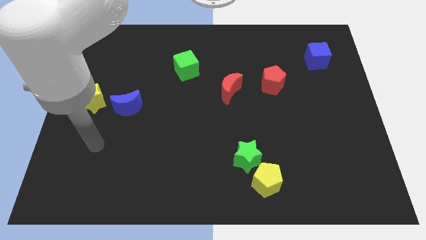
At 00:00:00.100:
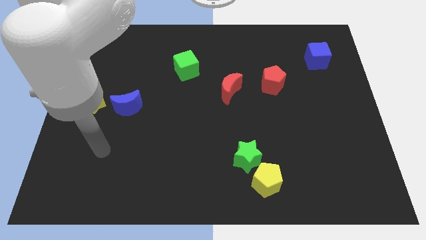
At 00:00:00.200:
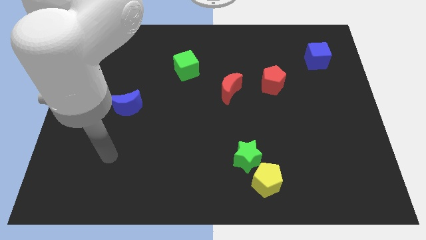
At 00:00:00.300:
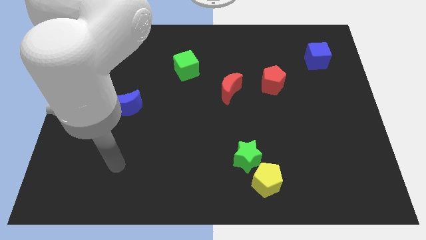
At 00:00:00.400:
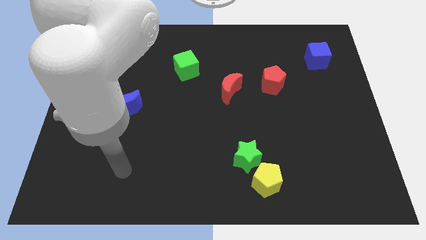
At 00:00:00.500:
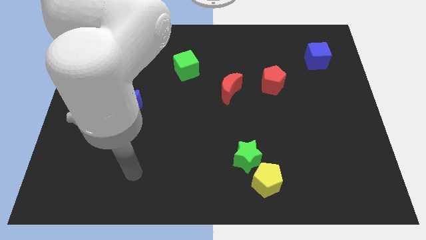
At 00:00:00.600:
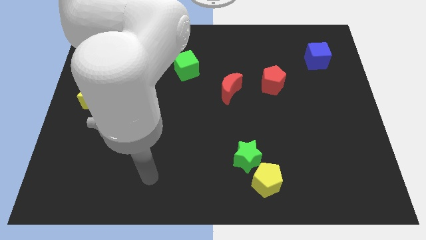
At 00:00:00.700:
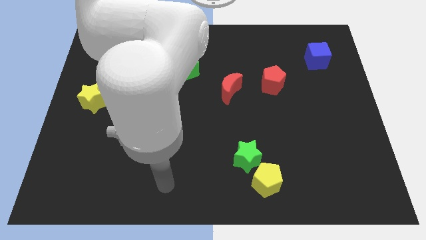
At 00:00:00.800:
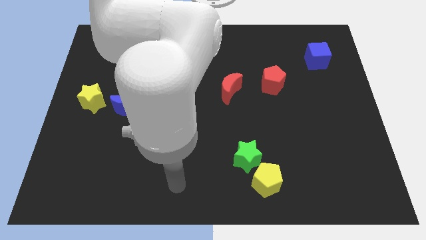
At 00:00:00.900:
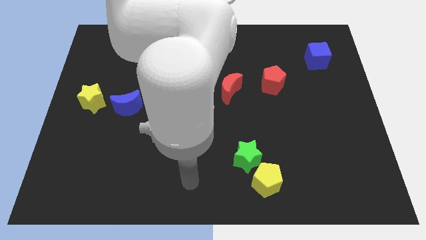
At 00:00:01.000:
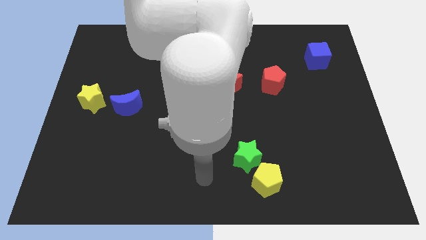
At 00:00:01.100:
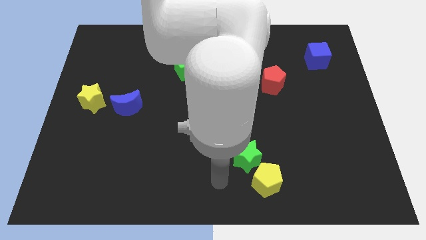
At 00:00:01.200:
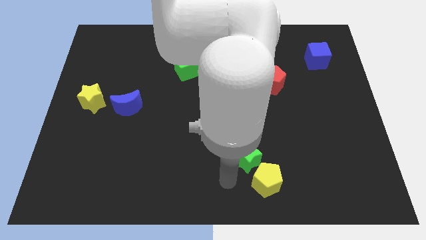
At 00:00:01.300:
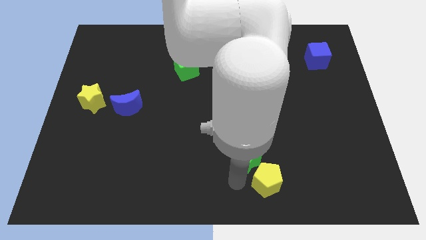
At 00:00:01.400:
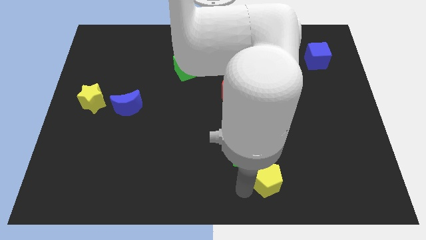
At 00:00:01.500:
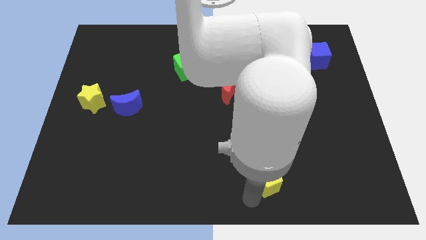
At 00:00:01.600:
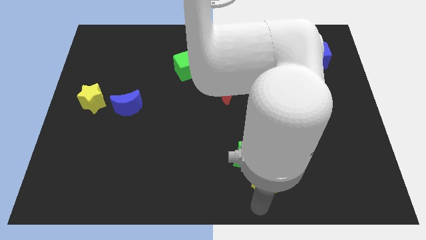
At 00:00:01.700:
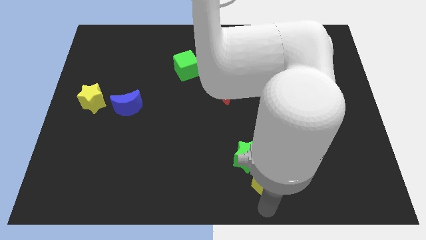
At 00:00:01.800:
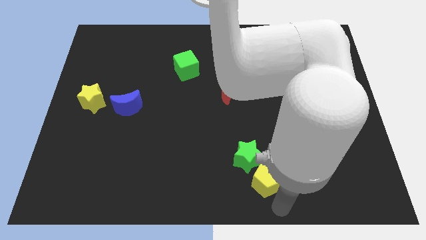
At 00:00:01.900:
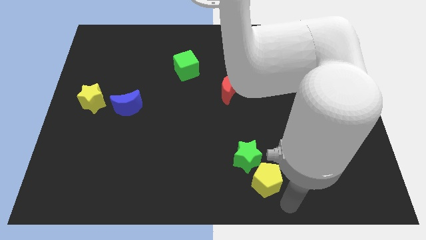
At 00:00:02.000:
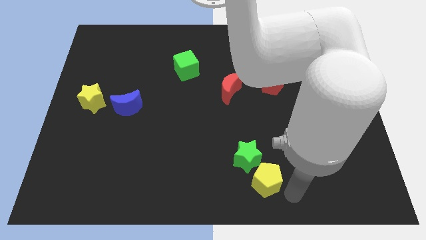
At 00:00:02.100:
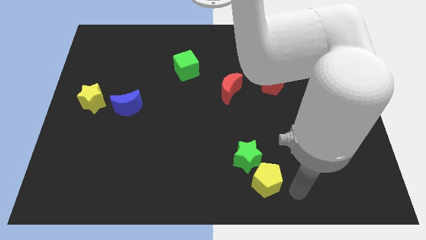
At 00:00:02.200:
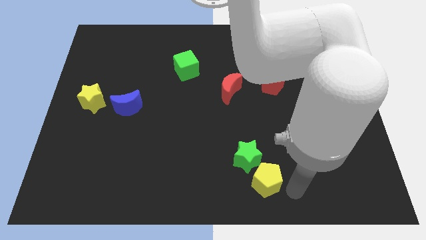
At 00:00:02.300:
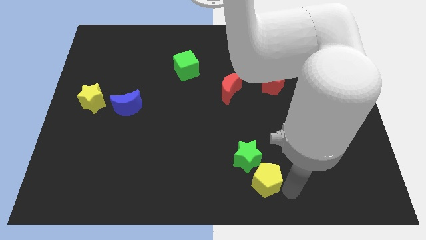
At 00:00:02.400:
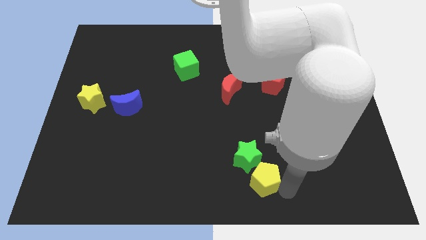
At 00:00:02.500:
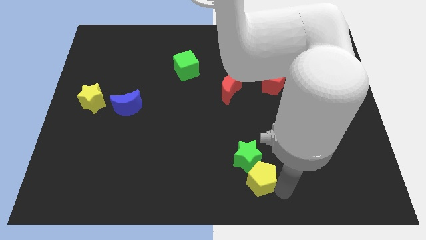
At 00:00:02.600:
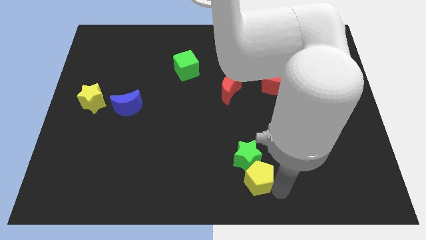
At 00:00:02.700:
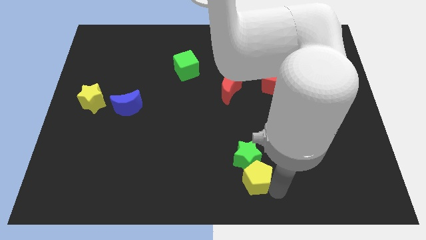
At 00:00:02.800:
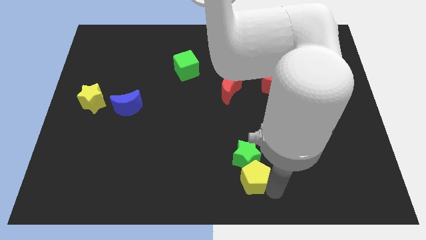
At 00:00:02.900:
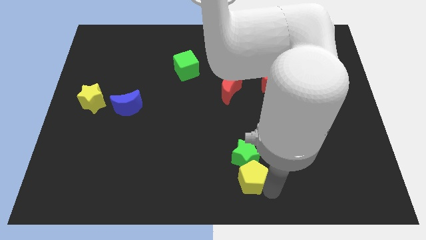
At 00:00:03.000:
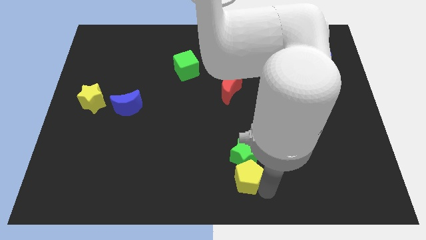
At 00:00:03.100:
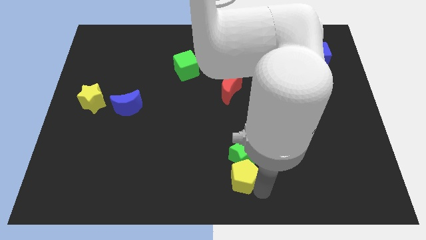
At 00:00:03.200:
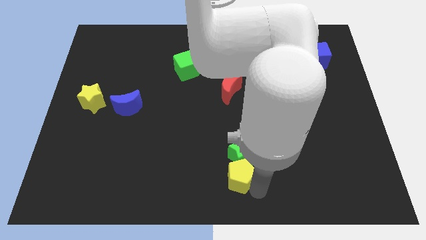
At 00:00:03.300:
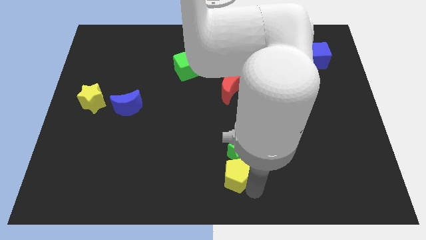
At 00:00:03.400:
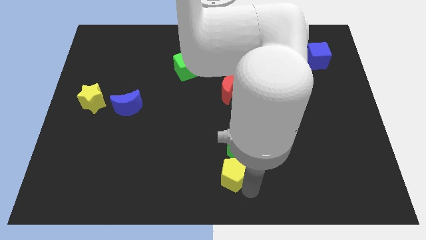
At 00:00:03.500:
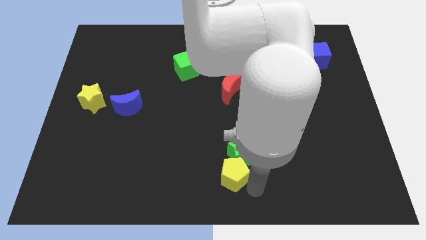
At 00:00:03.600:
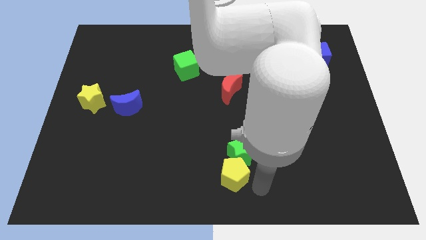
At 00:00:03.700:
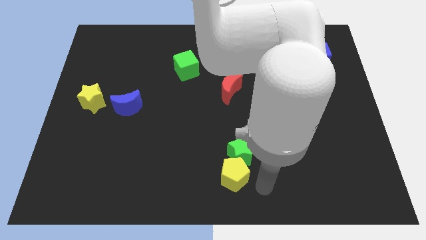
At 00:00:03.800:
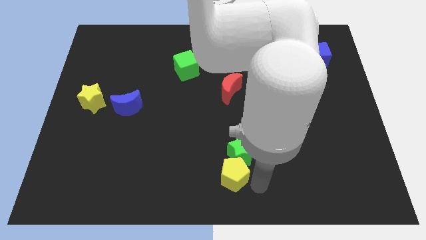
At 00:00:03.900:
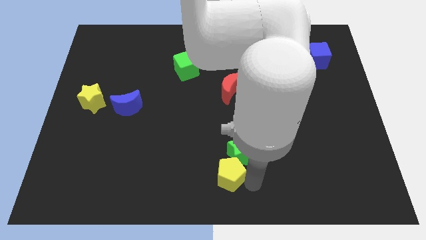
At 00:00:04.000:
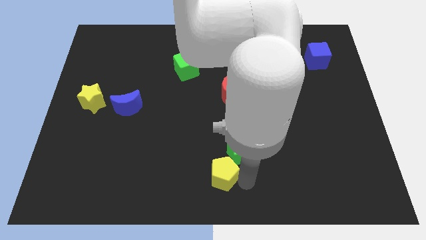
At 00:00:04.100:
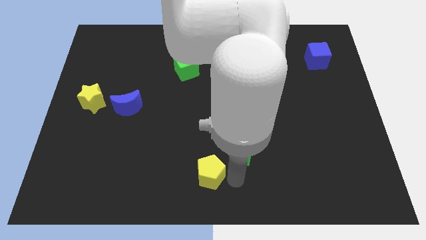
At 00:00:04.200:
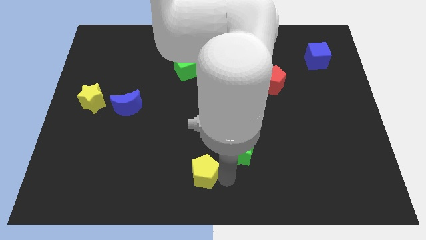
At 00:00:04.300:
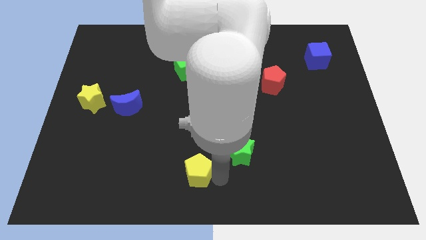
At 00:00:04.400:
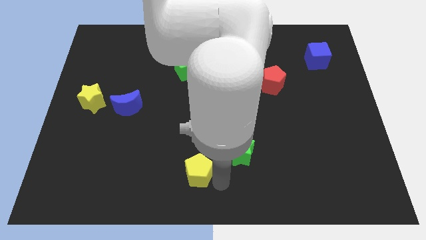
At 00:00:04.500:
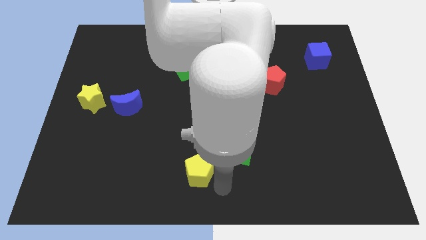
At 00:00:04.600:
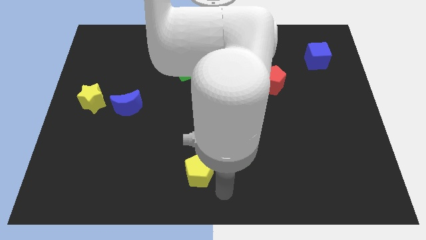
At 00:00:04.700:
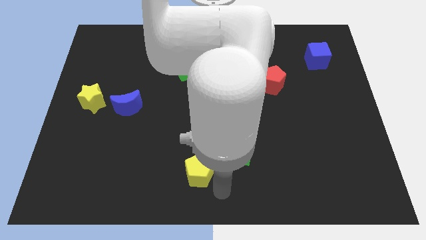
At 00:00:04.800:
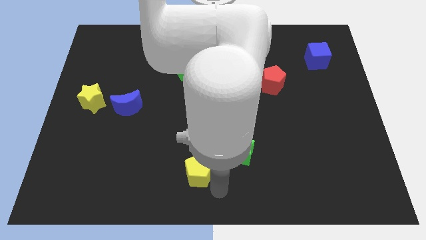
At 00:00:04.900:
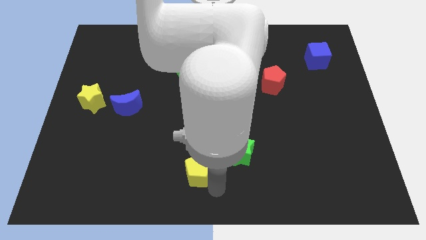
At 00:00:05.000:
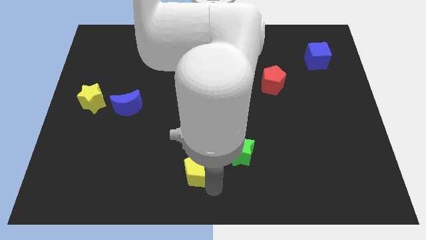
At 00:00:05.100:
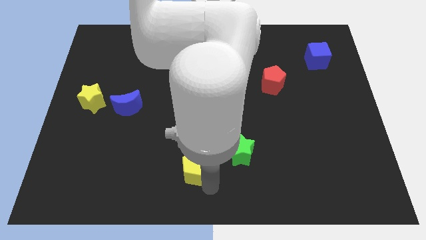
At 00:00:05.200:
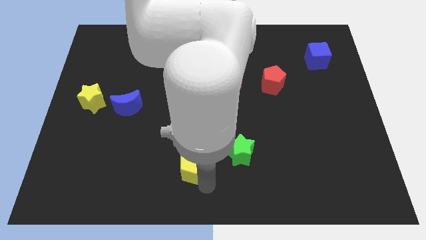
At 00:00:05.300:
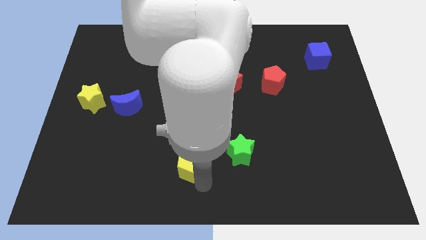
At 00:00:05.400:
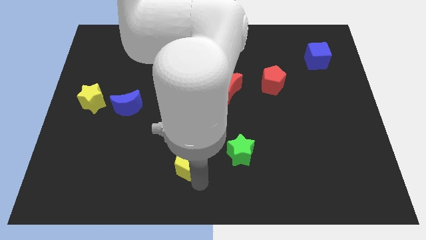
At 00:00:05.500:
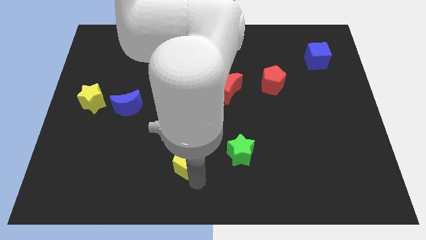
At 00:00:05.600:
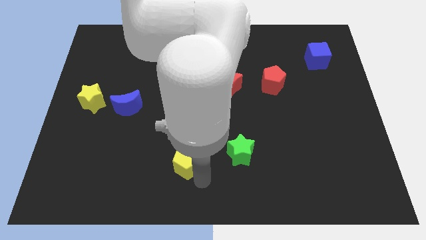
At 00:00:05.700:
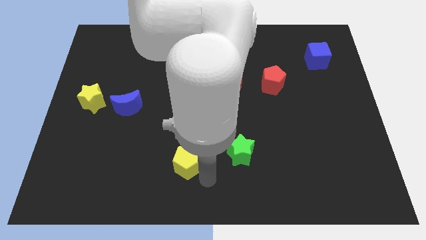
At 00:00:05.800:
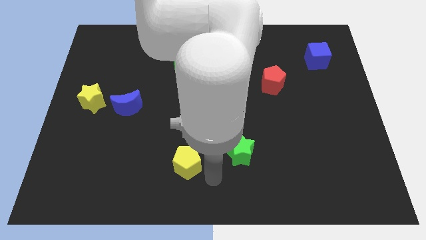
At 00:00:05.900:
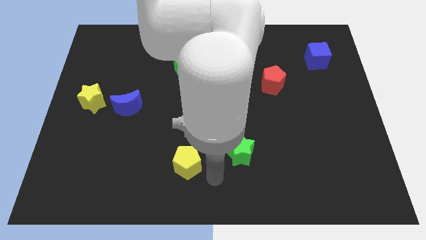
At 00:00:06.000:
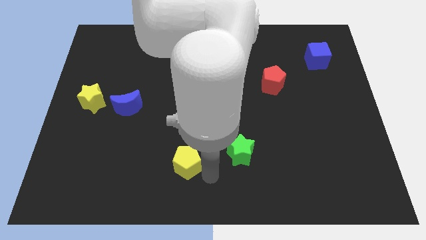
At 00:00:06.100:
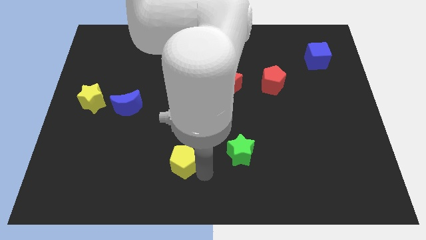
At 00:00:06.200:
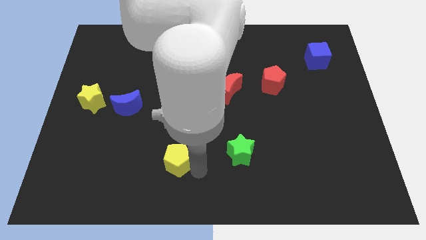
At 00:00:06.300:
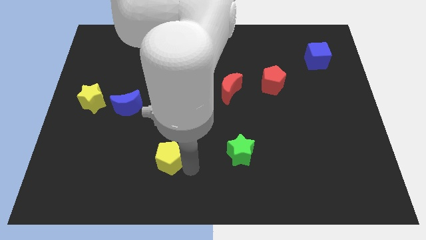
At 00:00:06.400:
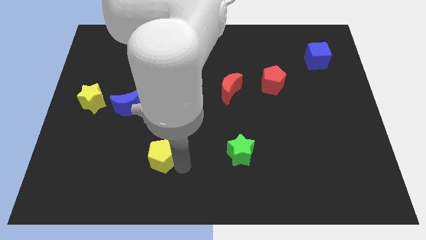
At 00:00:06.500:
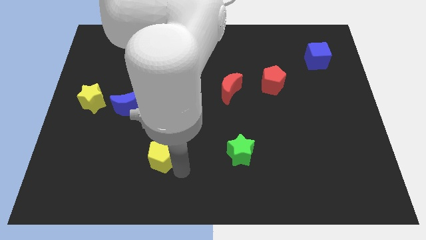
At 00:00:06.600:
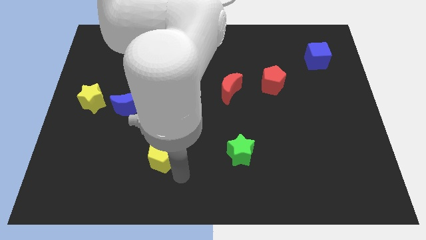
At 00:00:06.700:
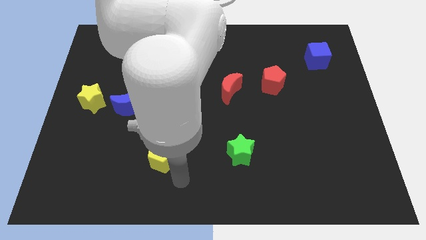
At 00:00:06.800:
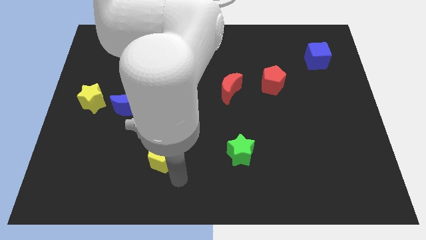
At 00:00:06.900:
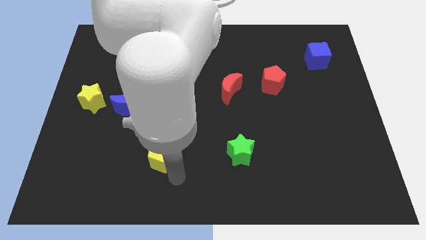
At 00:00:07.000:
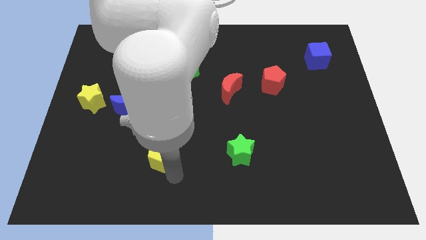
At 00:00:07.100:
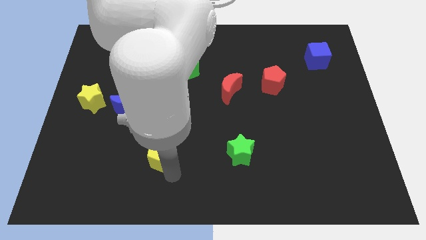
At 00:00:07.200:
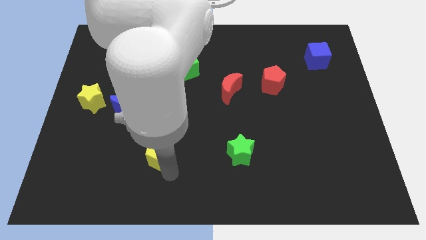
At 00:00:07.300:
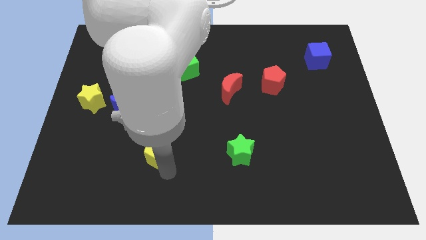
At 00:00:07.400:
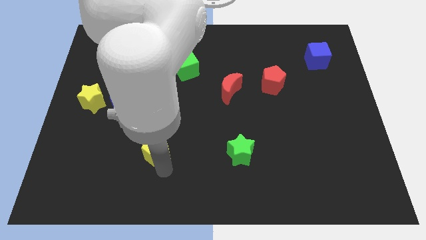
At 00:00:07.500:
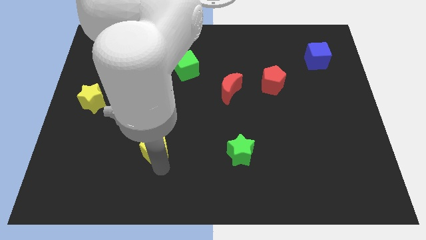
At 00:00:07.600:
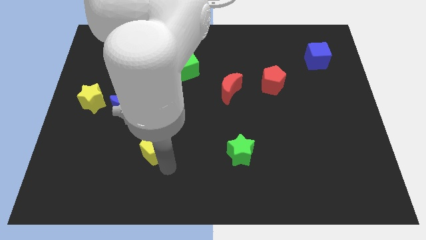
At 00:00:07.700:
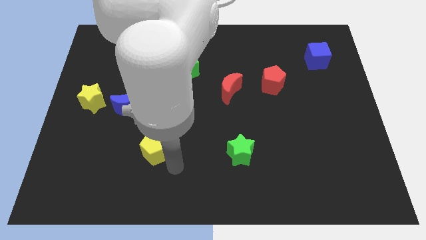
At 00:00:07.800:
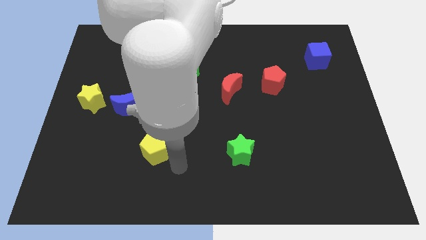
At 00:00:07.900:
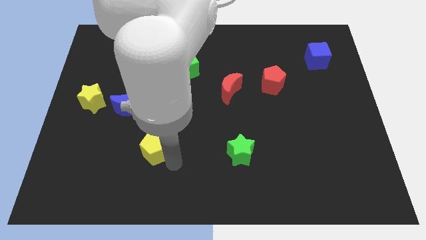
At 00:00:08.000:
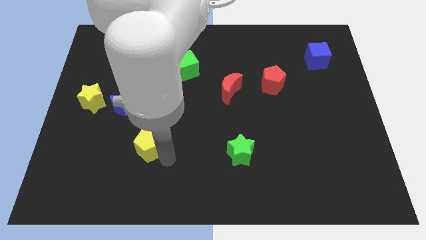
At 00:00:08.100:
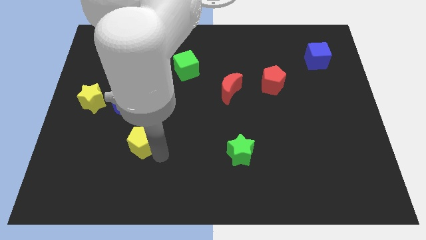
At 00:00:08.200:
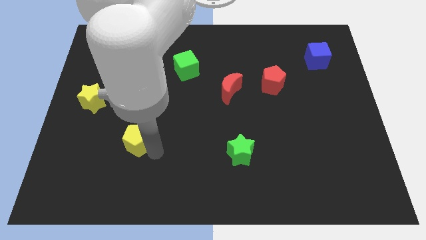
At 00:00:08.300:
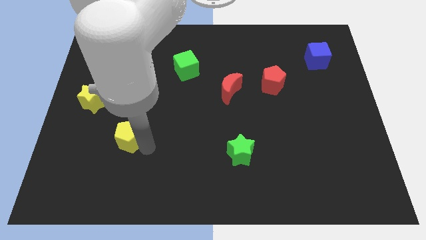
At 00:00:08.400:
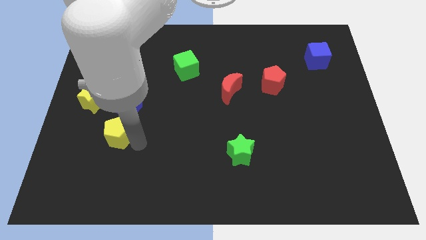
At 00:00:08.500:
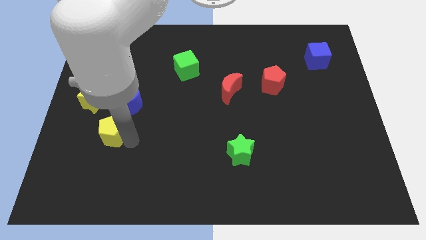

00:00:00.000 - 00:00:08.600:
slide the yellow pentagon to the bottom left side of the blue moon
